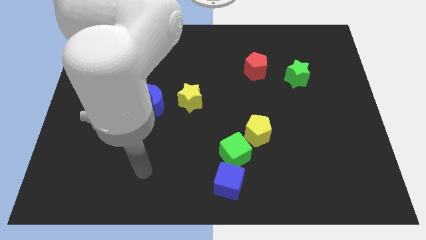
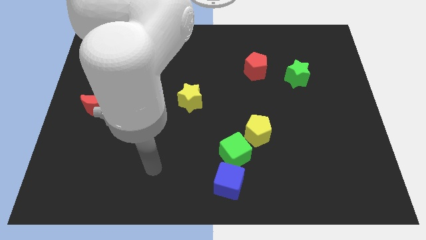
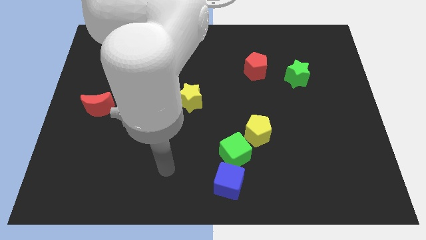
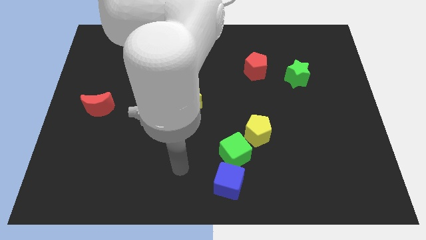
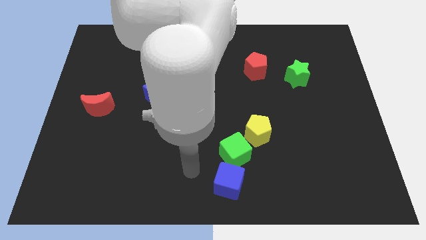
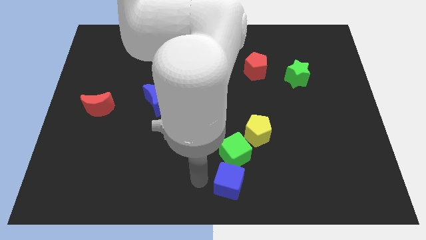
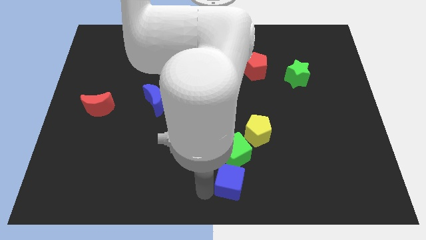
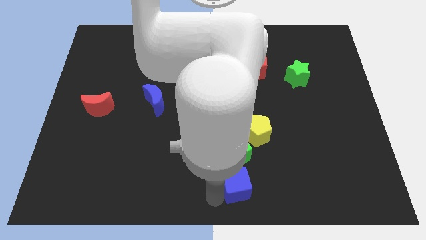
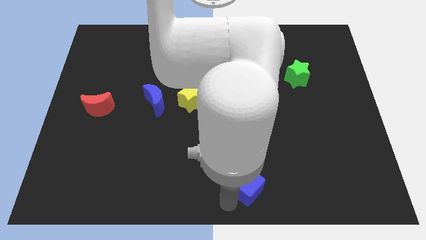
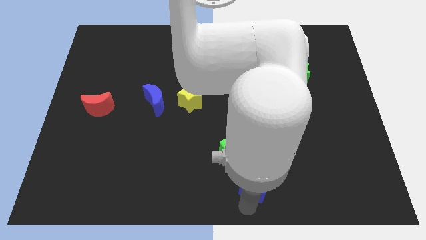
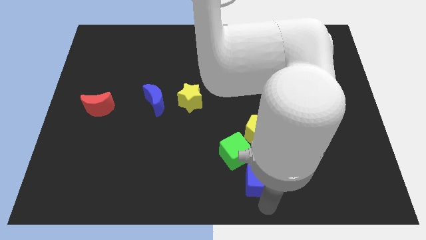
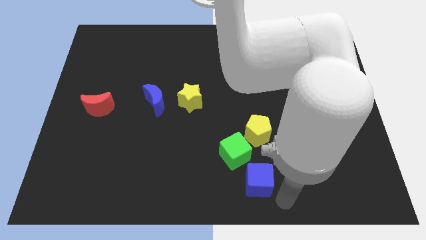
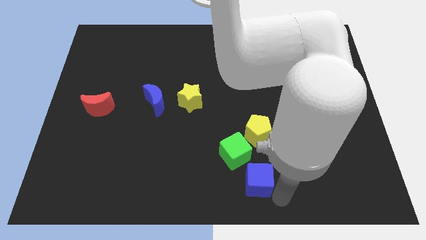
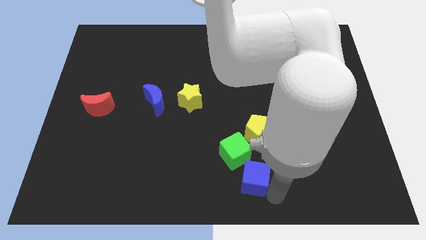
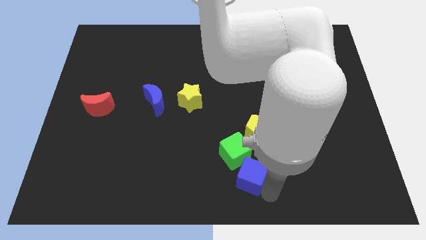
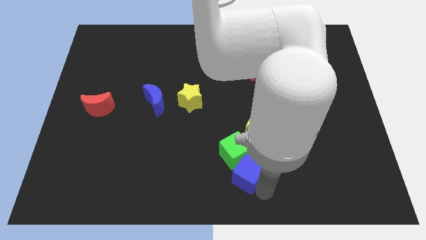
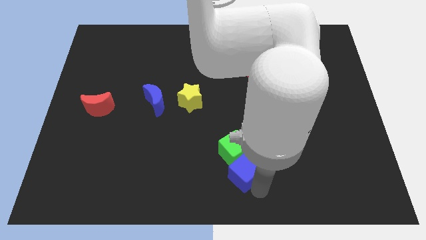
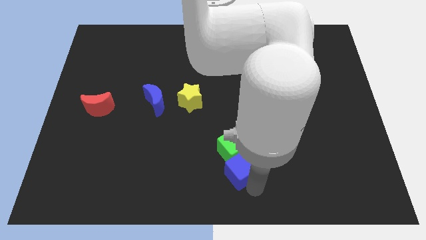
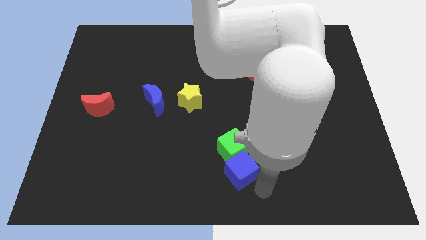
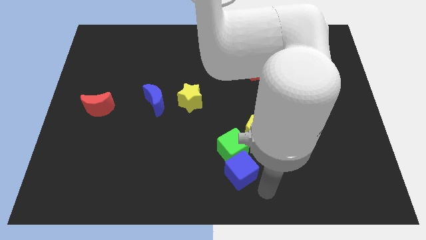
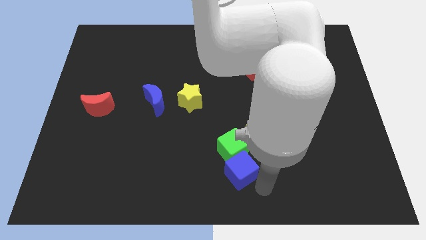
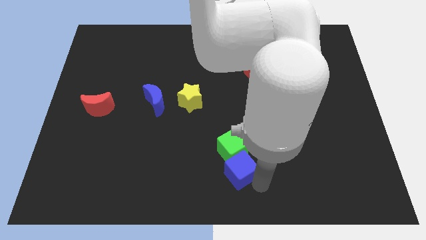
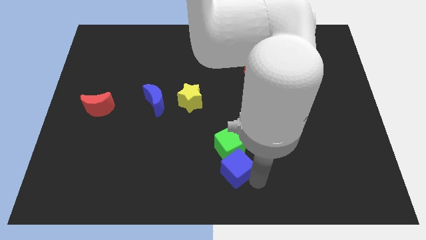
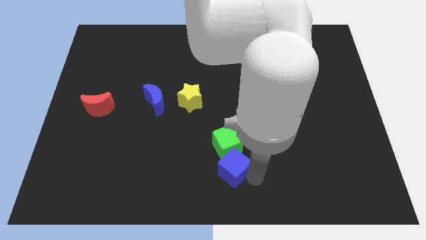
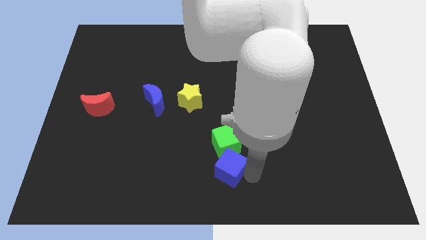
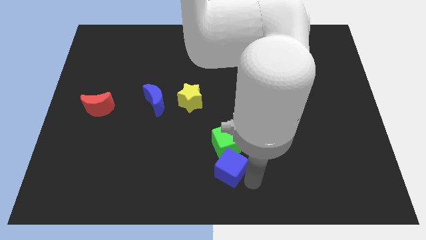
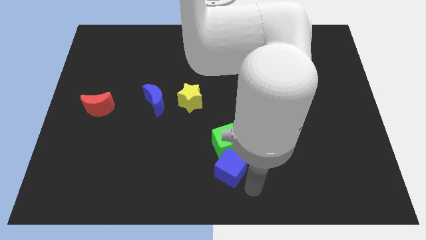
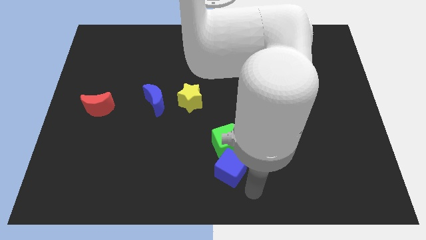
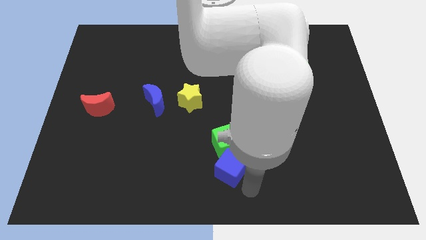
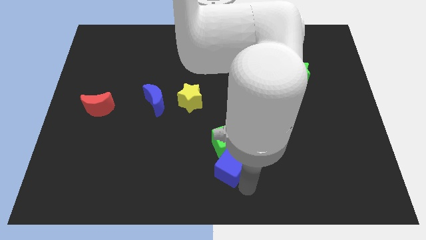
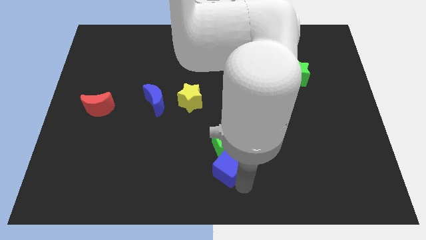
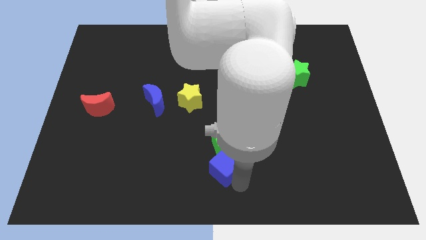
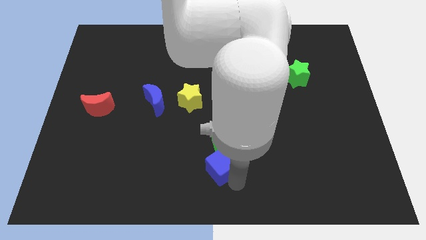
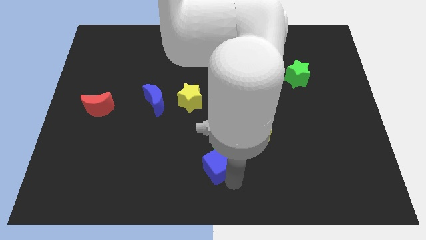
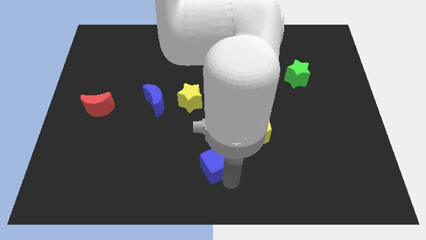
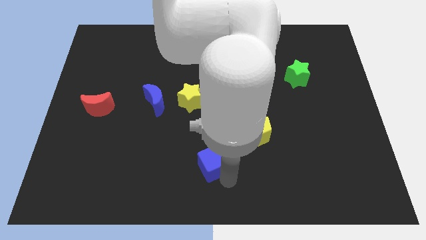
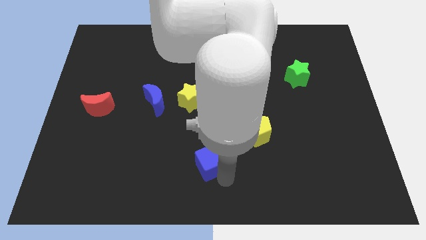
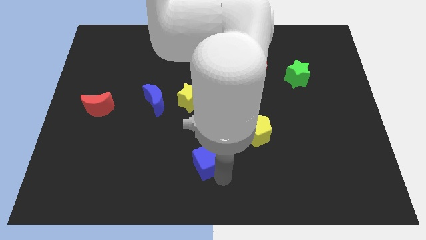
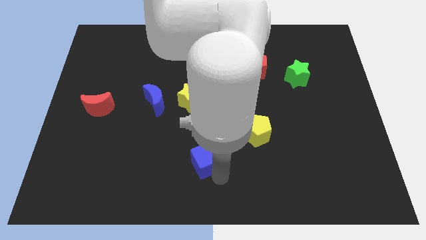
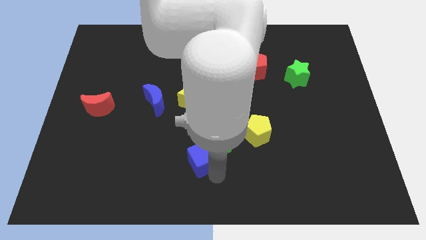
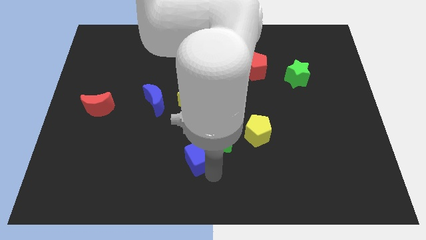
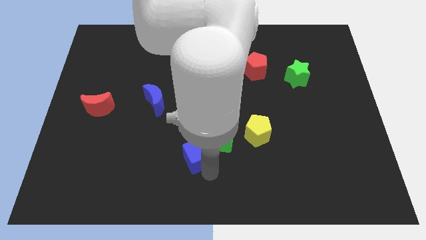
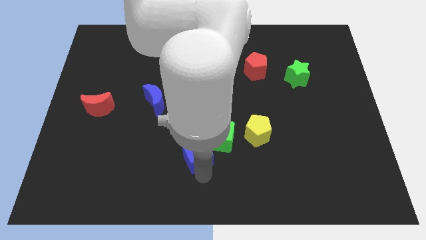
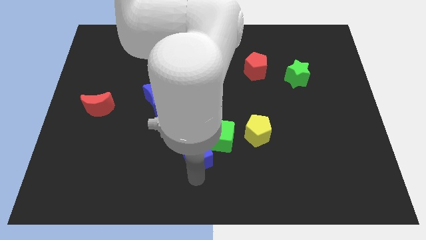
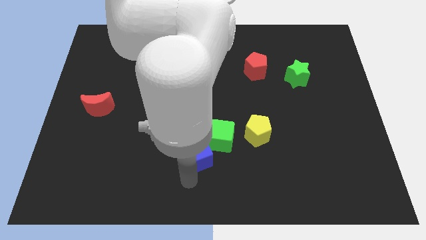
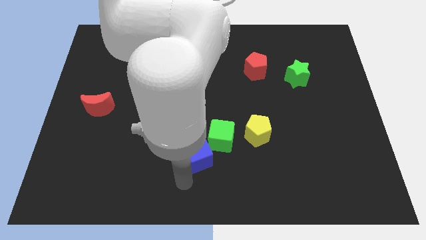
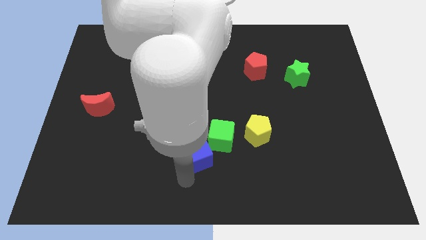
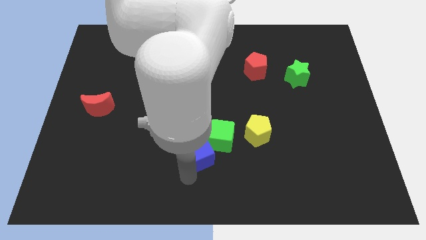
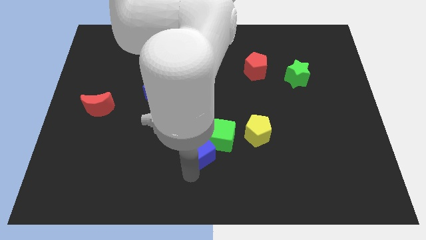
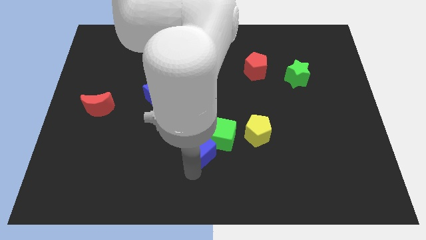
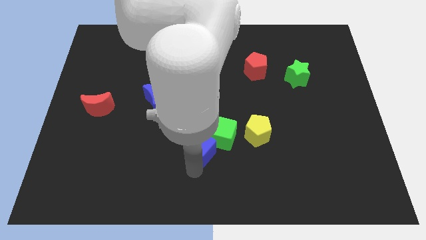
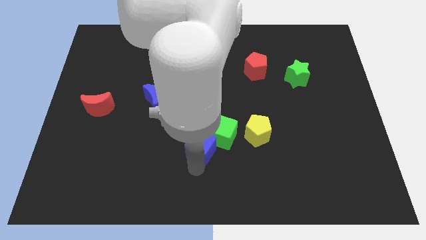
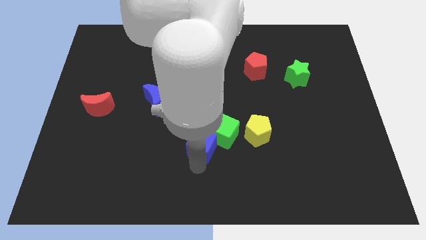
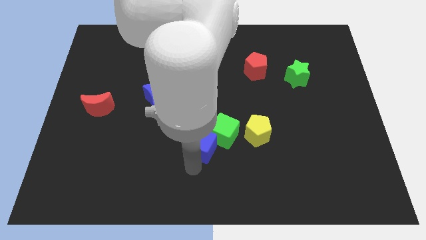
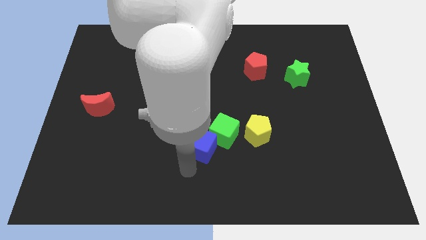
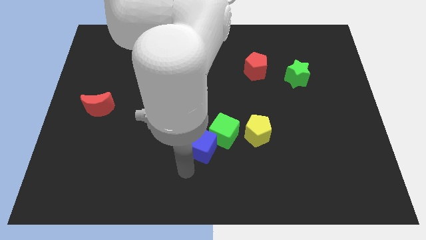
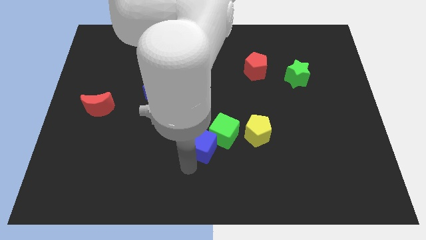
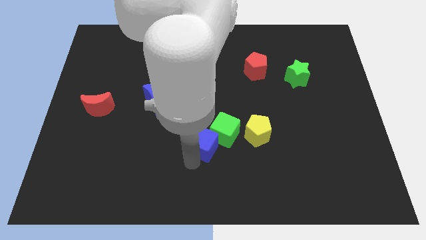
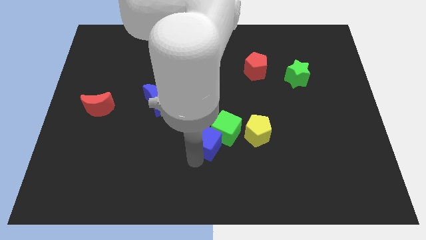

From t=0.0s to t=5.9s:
put the blue cube to the middle

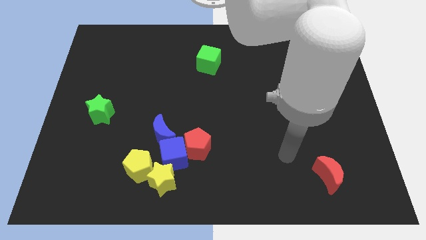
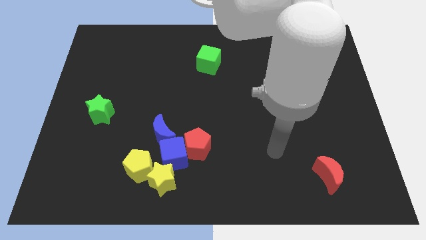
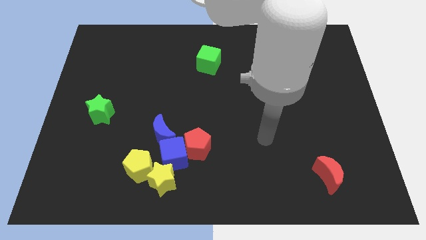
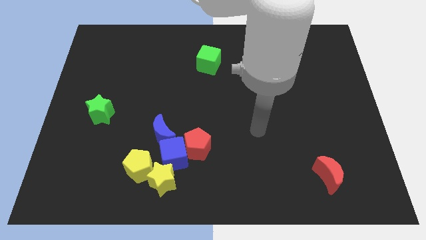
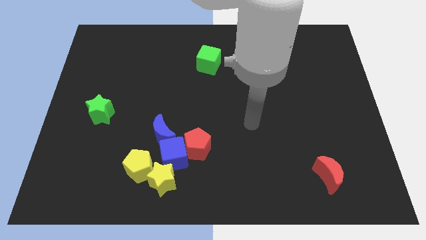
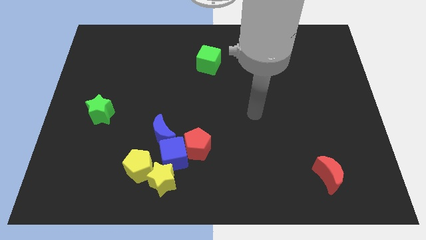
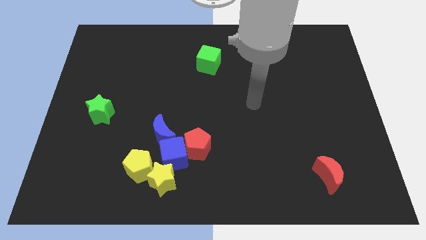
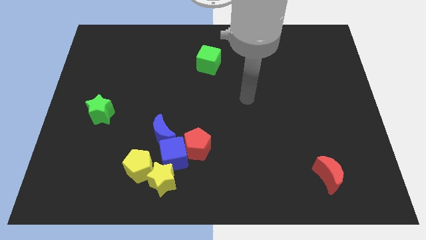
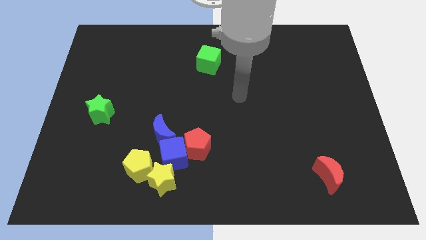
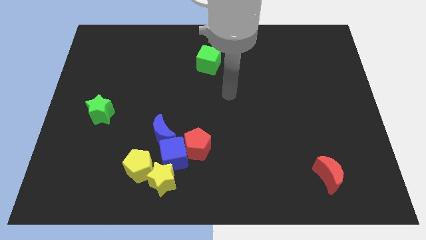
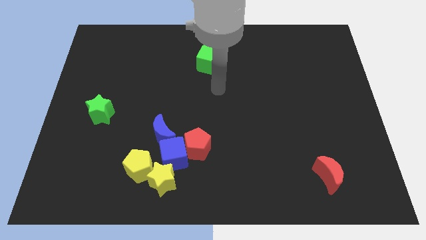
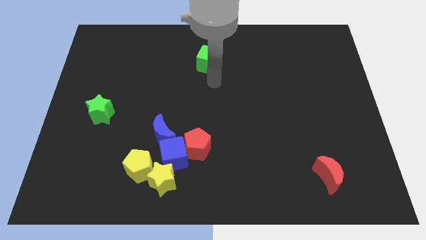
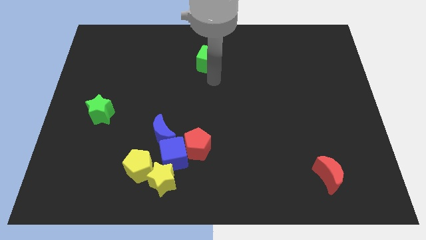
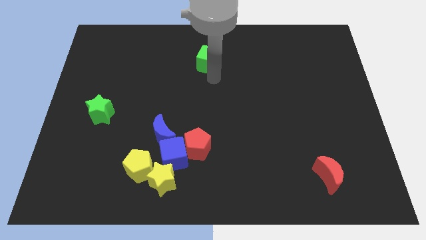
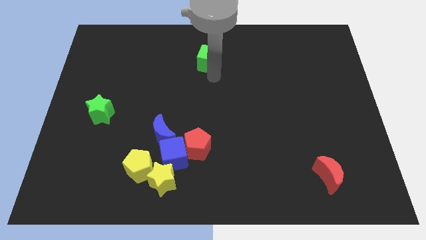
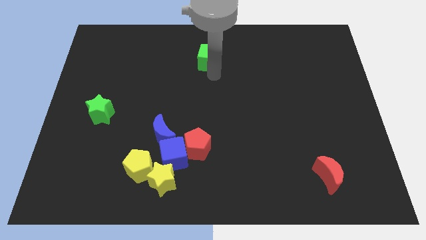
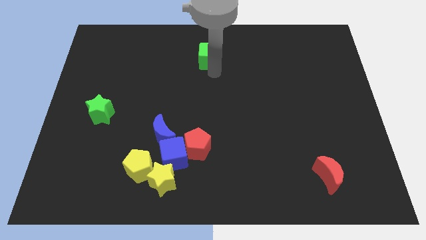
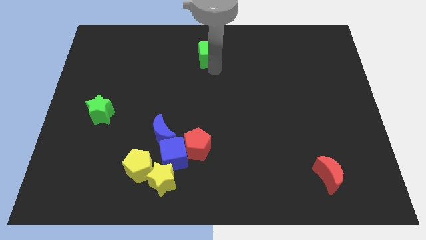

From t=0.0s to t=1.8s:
slide the green cube to the top
